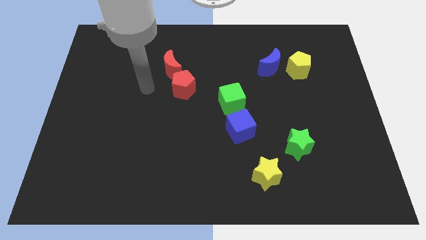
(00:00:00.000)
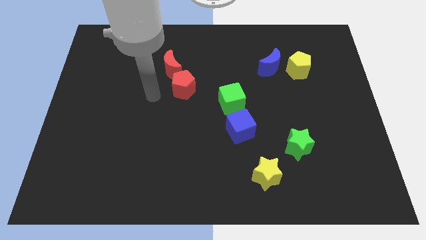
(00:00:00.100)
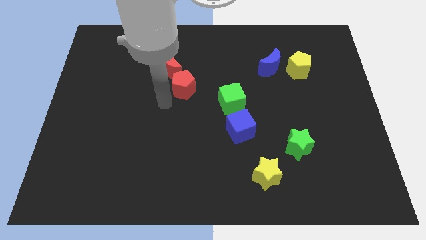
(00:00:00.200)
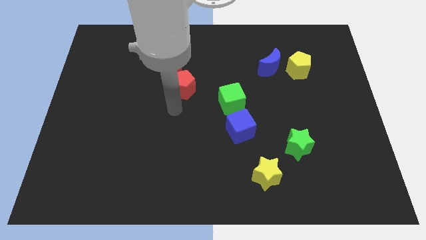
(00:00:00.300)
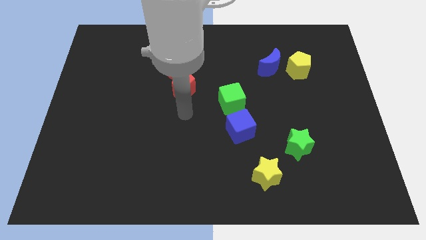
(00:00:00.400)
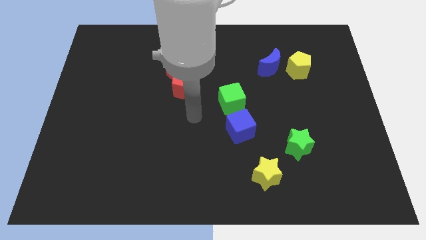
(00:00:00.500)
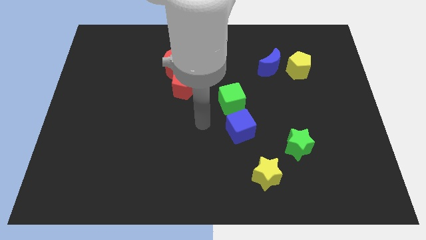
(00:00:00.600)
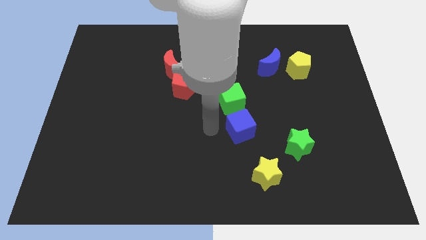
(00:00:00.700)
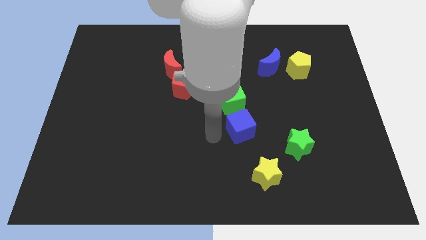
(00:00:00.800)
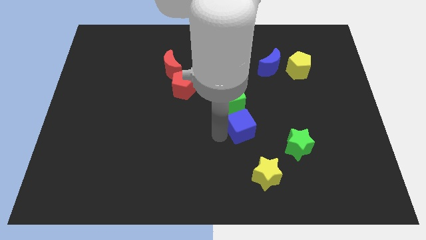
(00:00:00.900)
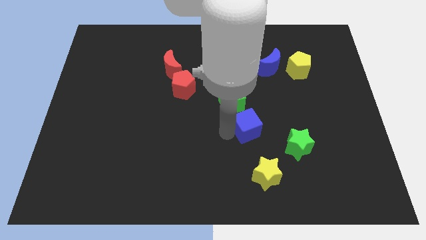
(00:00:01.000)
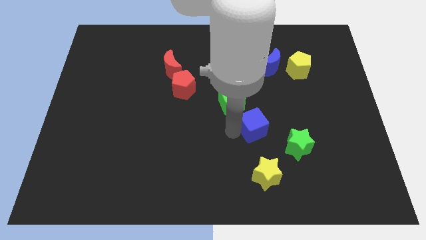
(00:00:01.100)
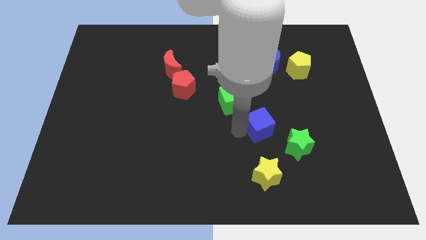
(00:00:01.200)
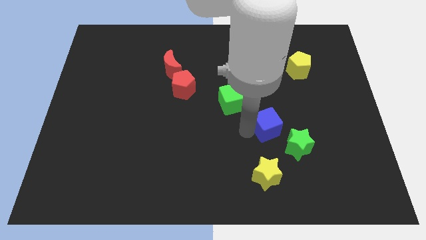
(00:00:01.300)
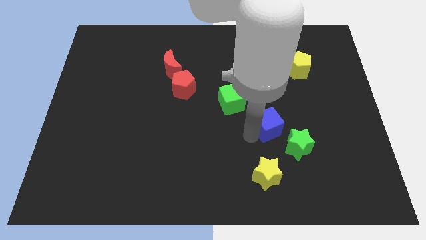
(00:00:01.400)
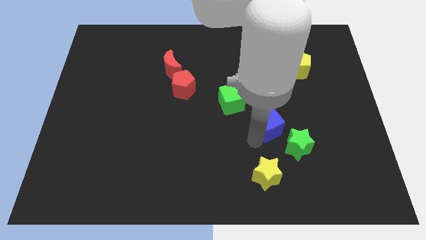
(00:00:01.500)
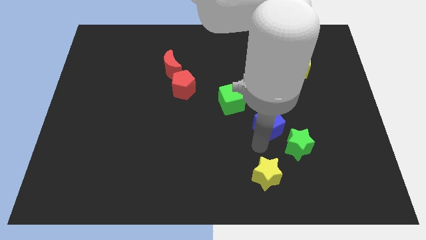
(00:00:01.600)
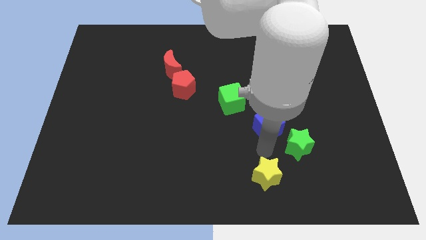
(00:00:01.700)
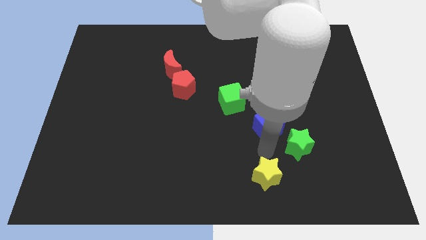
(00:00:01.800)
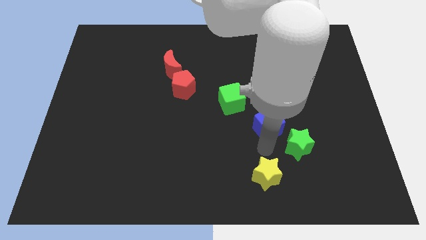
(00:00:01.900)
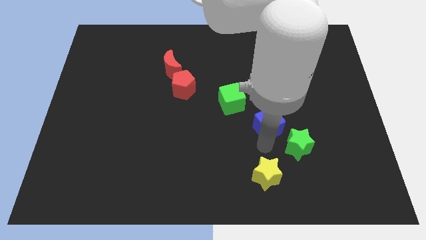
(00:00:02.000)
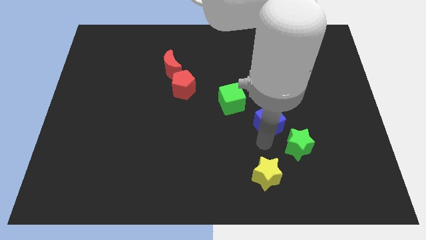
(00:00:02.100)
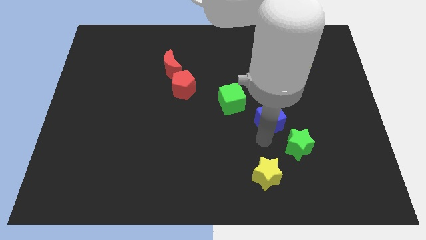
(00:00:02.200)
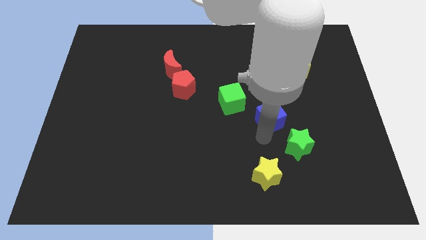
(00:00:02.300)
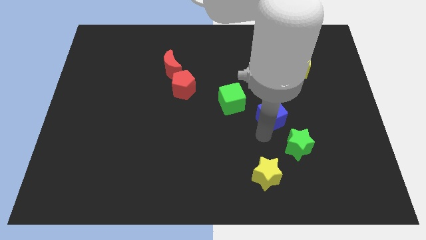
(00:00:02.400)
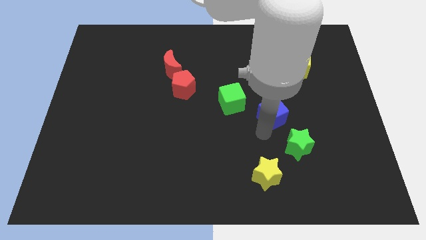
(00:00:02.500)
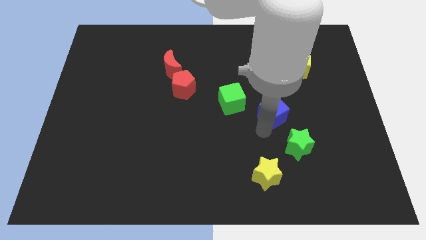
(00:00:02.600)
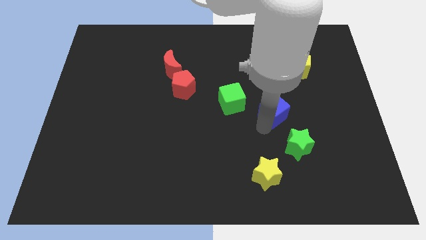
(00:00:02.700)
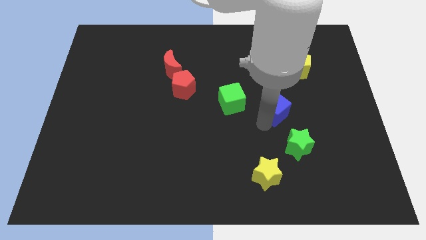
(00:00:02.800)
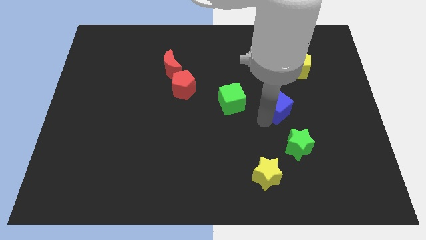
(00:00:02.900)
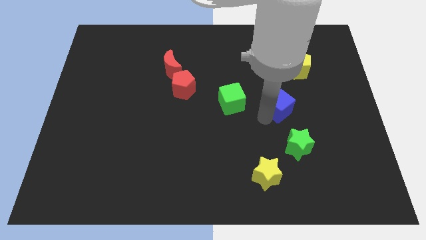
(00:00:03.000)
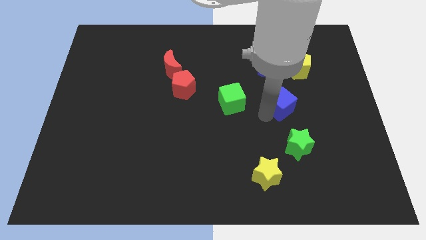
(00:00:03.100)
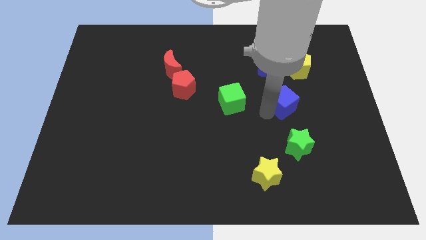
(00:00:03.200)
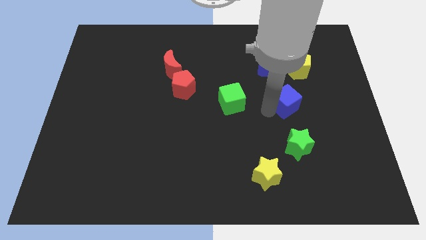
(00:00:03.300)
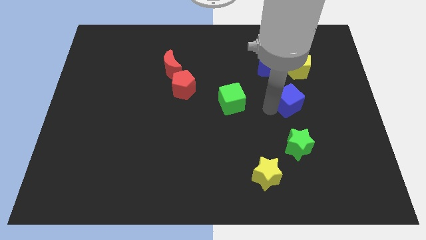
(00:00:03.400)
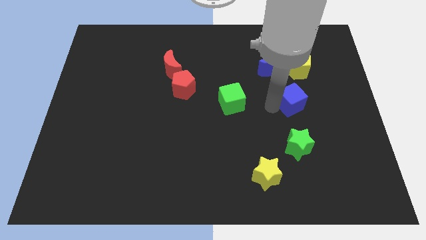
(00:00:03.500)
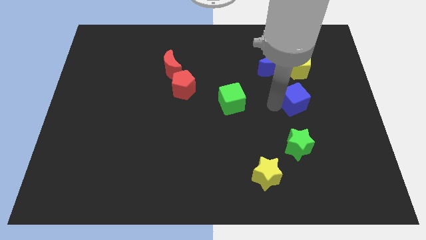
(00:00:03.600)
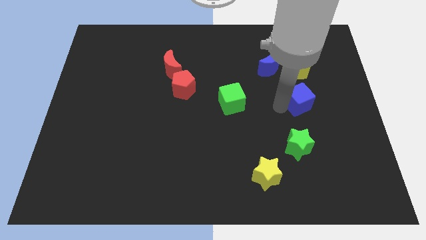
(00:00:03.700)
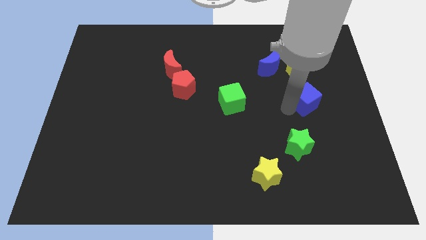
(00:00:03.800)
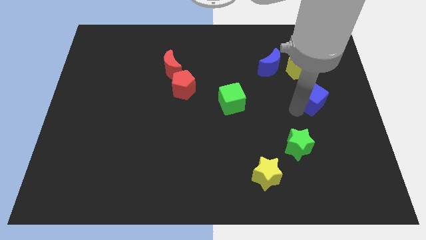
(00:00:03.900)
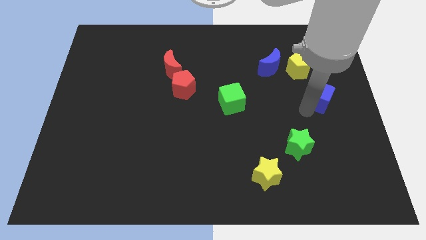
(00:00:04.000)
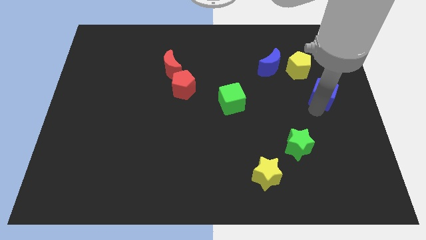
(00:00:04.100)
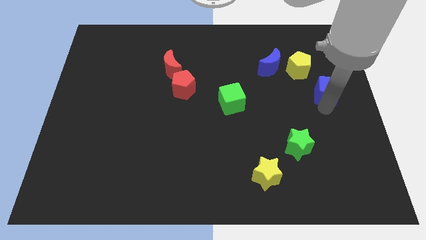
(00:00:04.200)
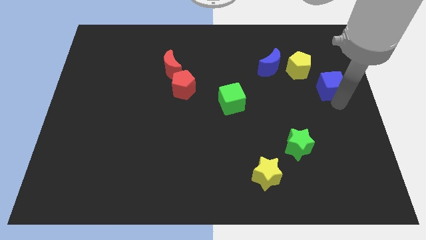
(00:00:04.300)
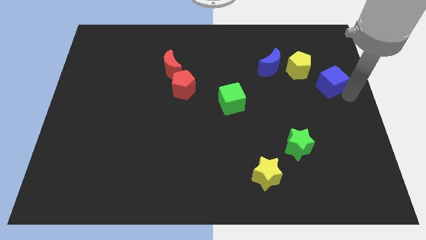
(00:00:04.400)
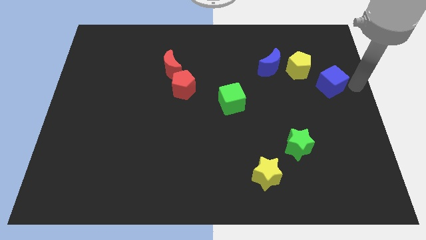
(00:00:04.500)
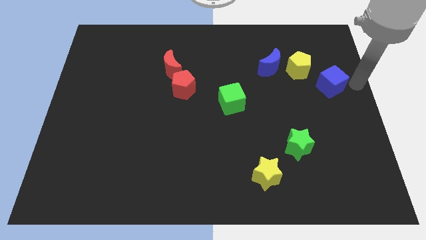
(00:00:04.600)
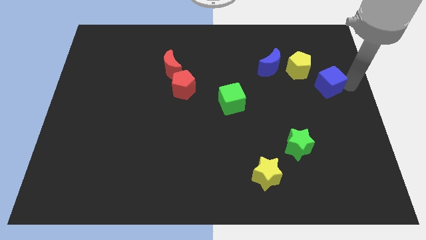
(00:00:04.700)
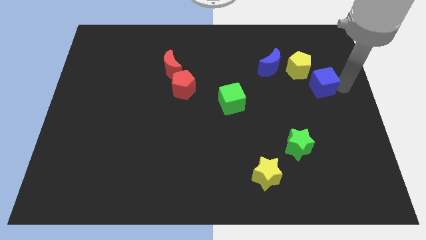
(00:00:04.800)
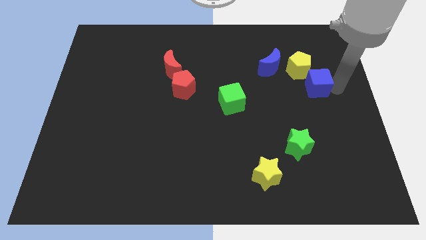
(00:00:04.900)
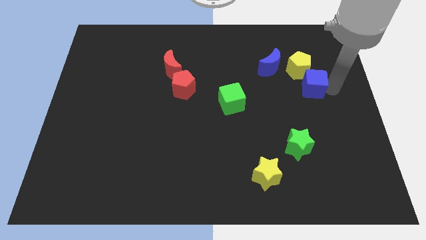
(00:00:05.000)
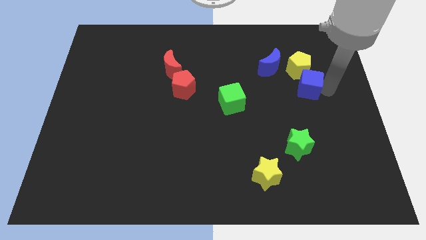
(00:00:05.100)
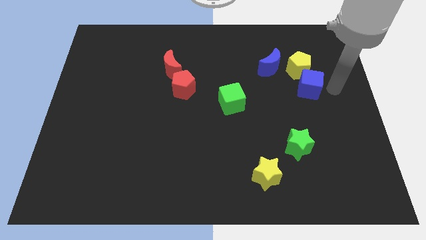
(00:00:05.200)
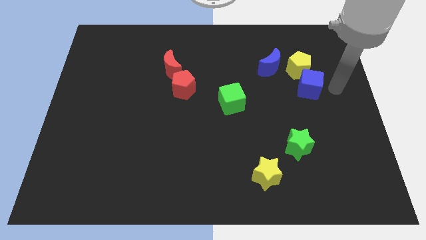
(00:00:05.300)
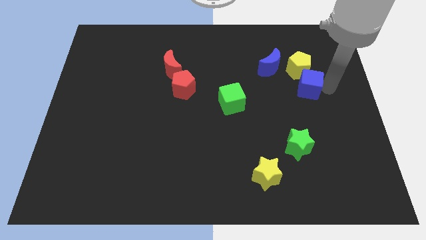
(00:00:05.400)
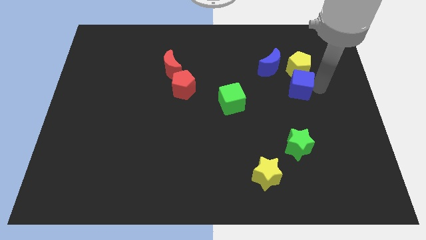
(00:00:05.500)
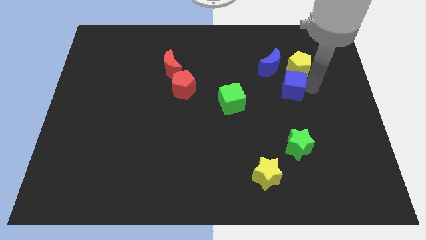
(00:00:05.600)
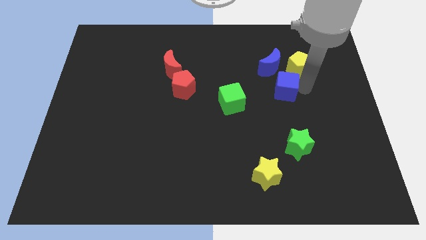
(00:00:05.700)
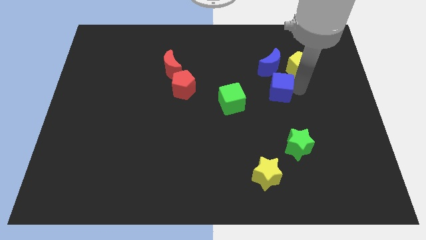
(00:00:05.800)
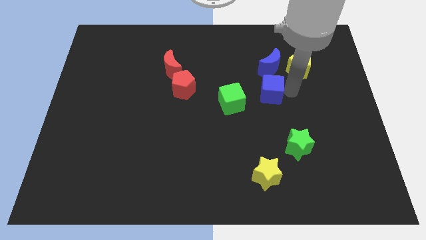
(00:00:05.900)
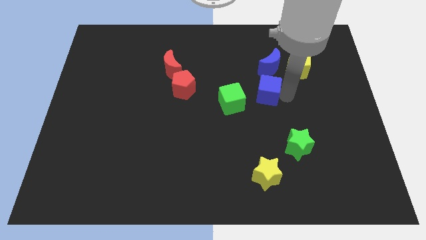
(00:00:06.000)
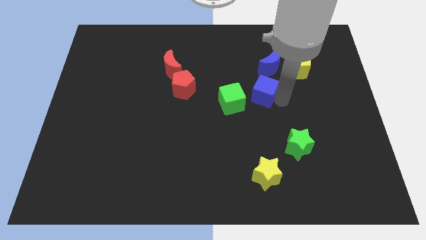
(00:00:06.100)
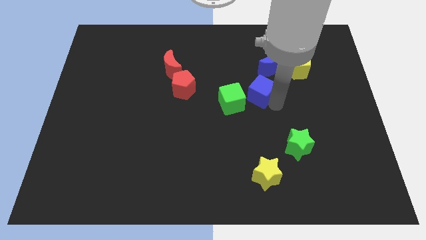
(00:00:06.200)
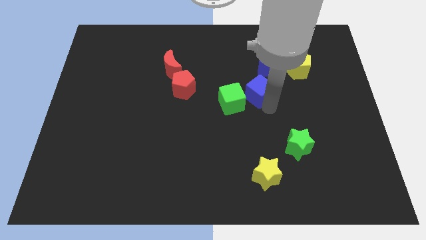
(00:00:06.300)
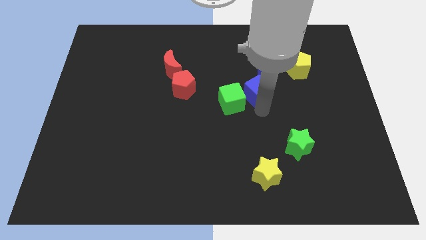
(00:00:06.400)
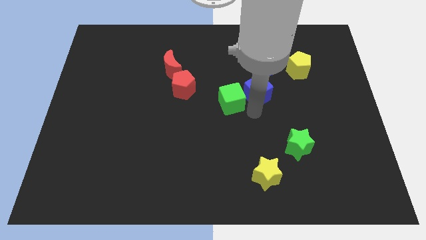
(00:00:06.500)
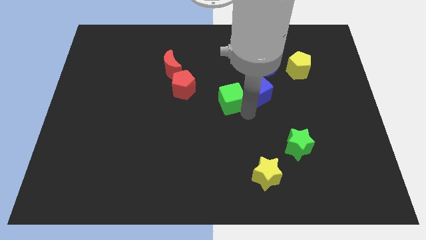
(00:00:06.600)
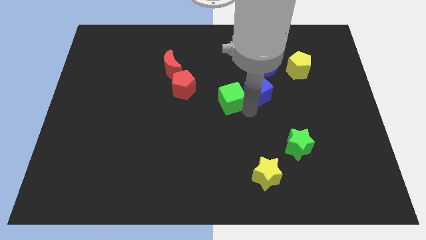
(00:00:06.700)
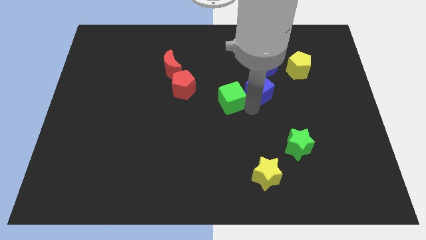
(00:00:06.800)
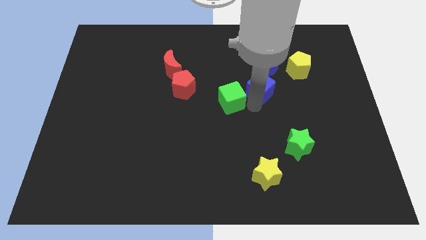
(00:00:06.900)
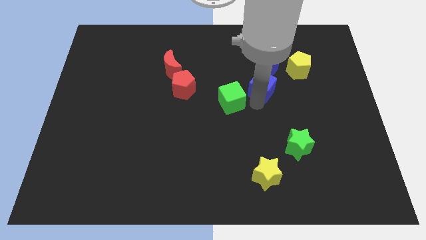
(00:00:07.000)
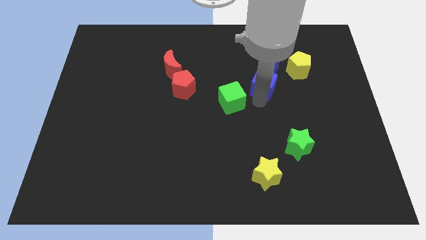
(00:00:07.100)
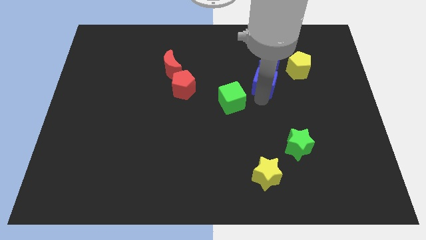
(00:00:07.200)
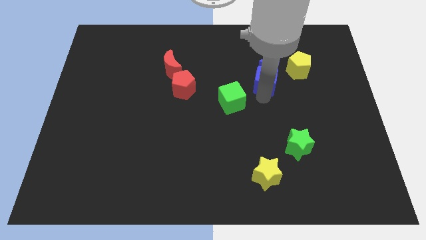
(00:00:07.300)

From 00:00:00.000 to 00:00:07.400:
push the blue cube close to the blue moon
